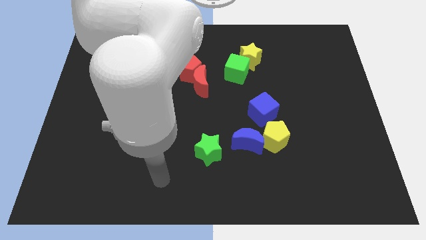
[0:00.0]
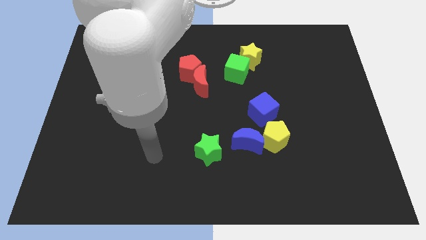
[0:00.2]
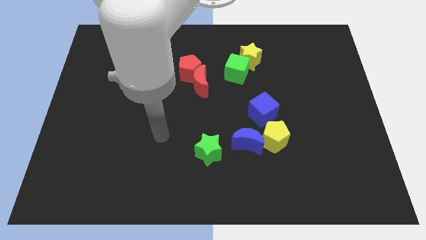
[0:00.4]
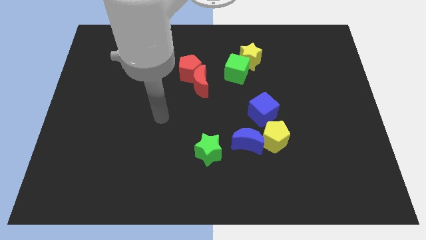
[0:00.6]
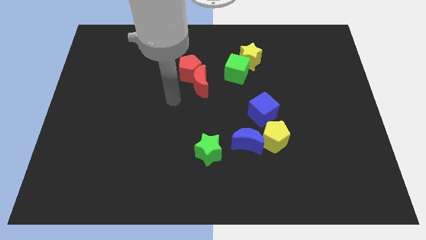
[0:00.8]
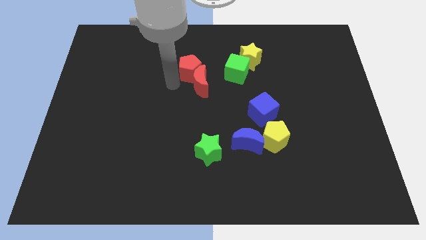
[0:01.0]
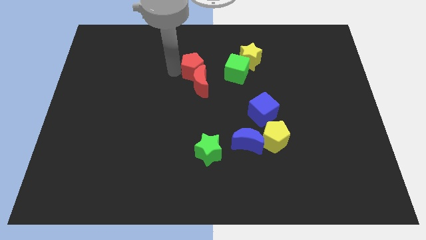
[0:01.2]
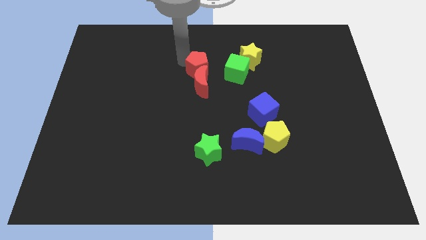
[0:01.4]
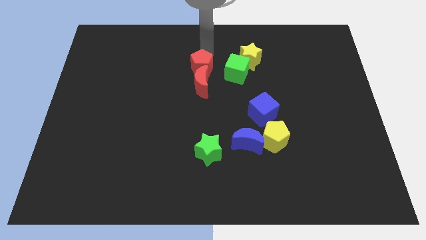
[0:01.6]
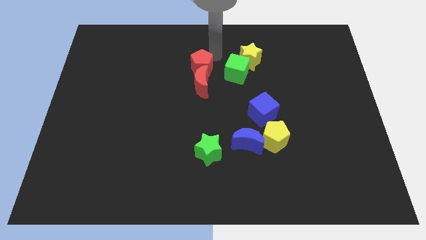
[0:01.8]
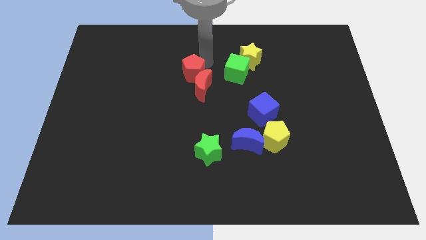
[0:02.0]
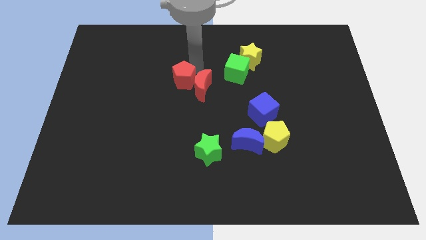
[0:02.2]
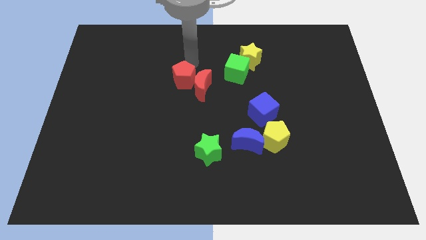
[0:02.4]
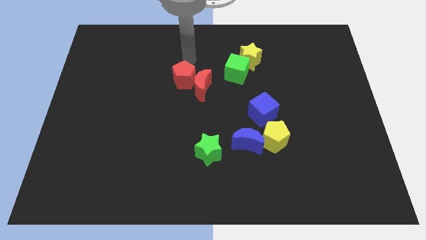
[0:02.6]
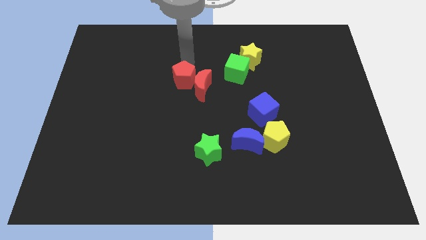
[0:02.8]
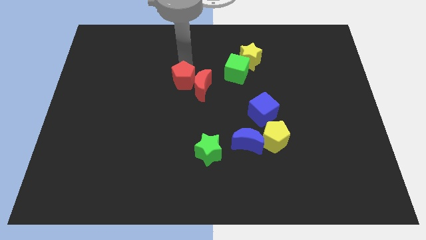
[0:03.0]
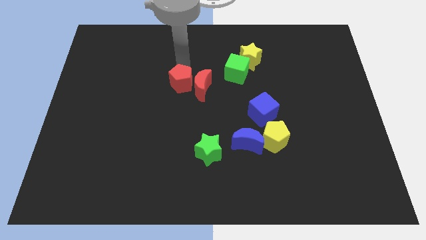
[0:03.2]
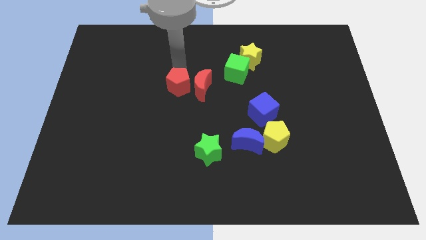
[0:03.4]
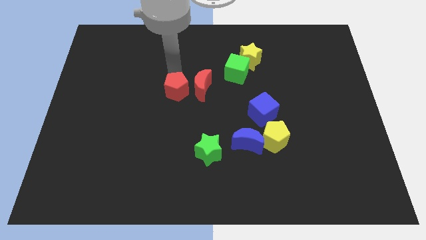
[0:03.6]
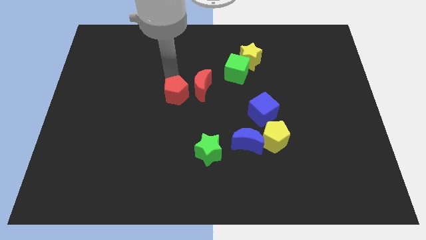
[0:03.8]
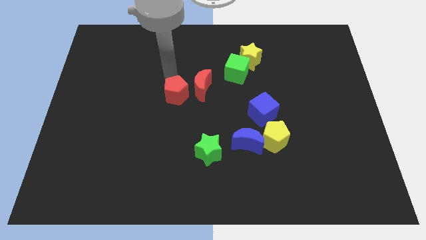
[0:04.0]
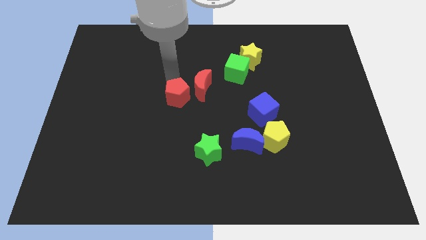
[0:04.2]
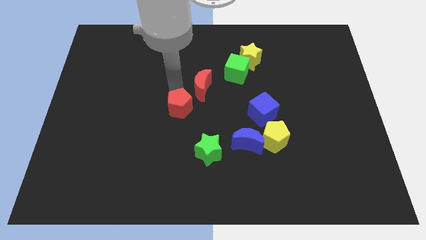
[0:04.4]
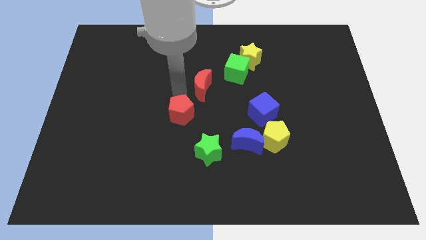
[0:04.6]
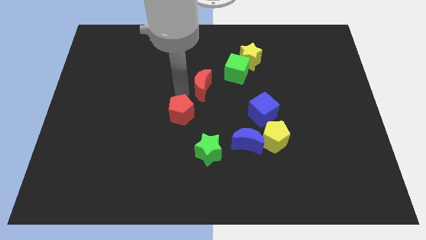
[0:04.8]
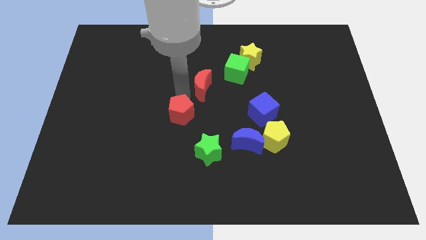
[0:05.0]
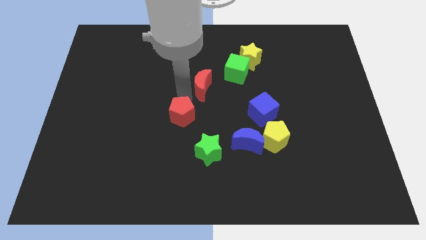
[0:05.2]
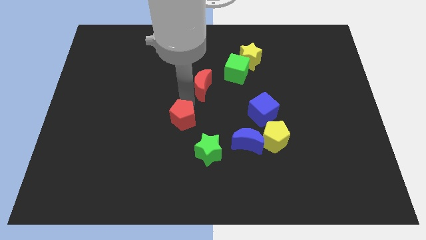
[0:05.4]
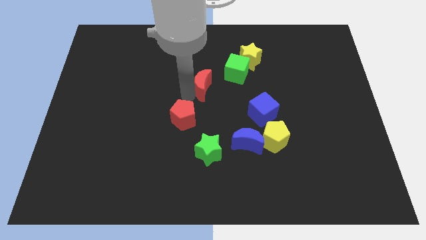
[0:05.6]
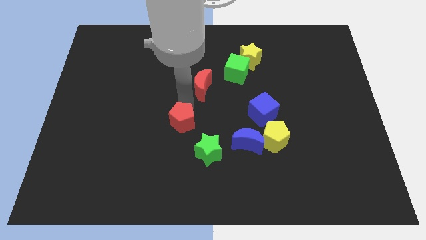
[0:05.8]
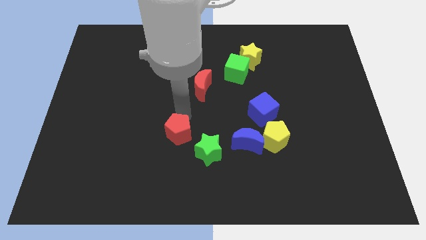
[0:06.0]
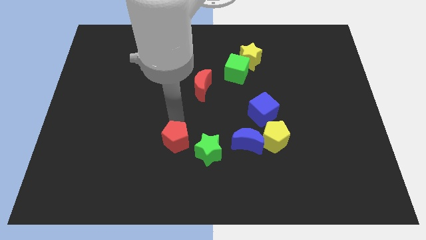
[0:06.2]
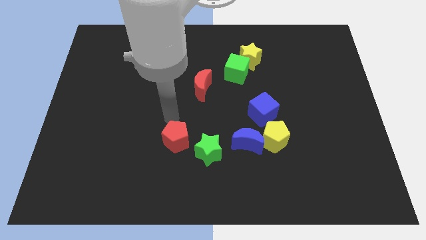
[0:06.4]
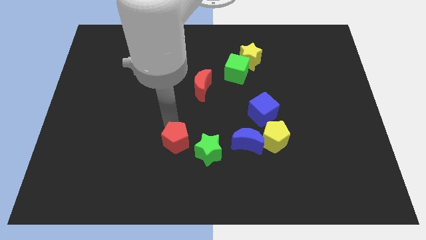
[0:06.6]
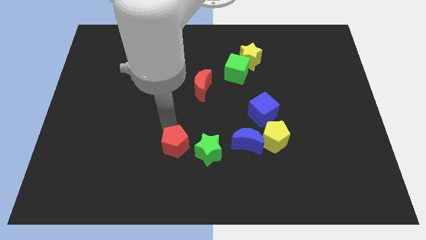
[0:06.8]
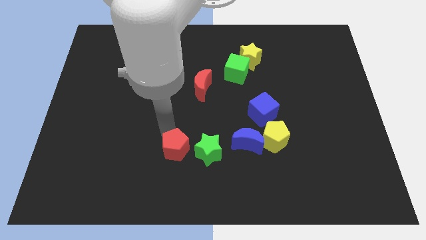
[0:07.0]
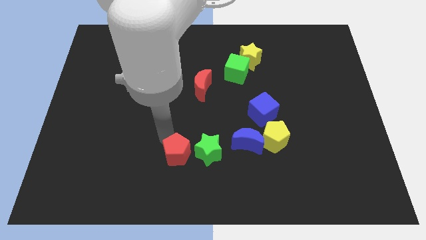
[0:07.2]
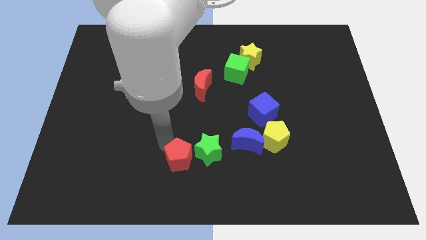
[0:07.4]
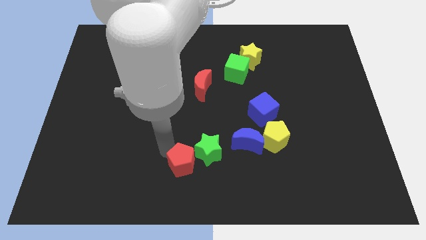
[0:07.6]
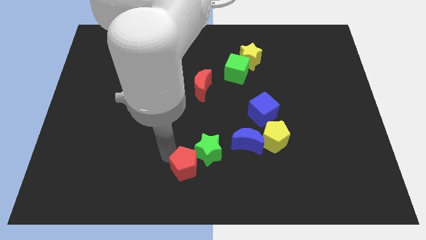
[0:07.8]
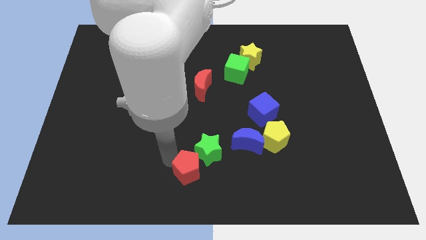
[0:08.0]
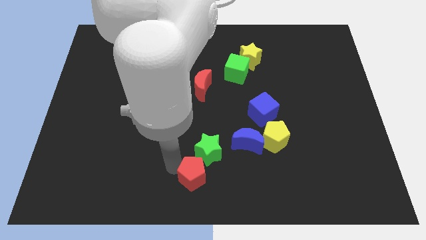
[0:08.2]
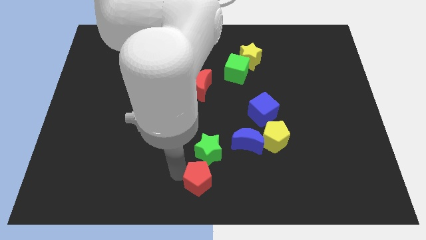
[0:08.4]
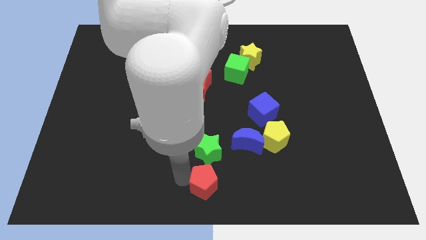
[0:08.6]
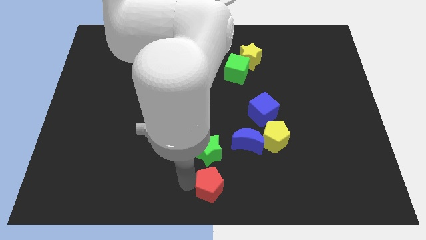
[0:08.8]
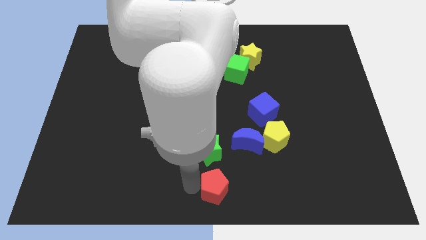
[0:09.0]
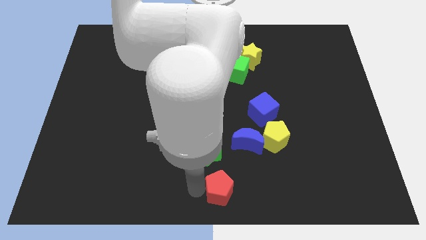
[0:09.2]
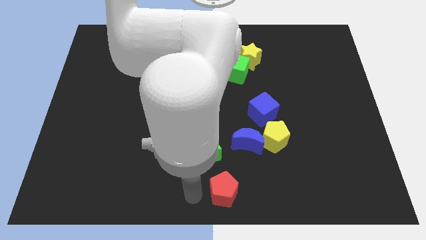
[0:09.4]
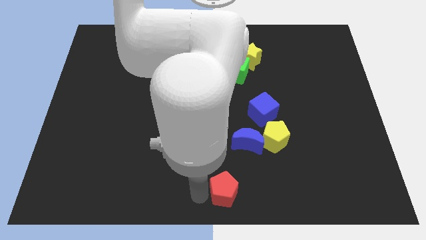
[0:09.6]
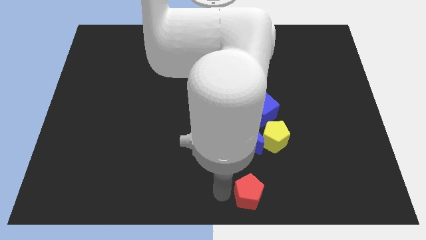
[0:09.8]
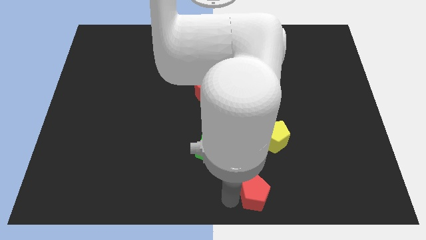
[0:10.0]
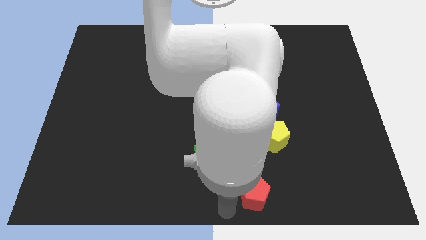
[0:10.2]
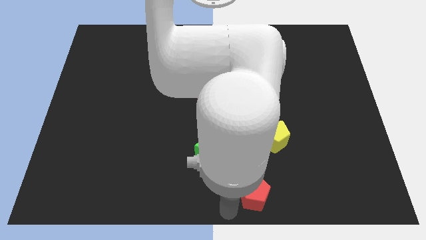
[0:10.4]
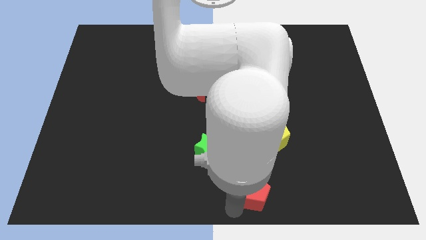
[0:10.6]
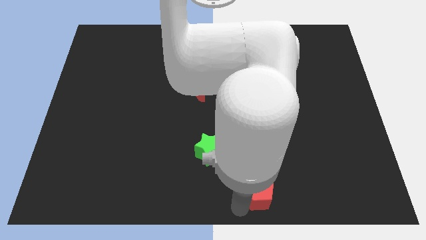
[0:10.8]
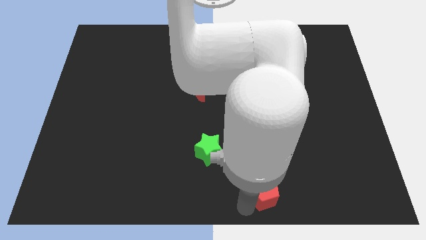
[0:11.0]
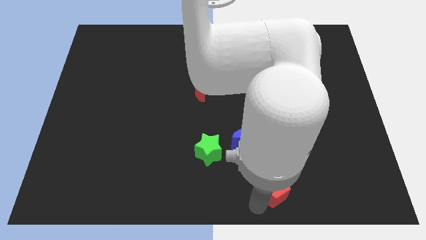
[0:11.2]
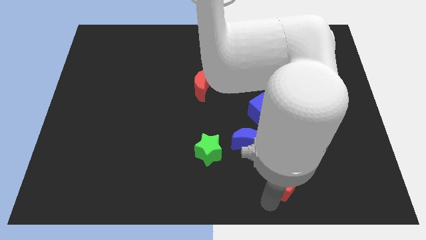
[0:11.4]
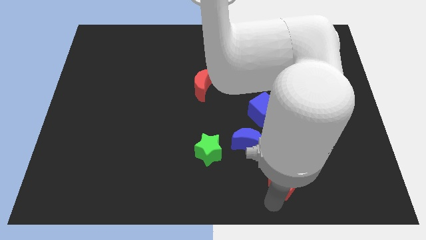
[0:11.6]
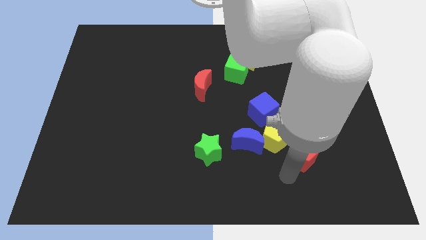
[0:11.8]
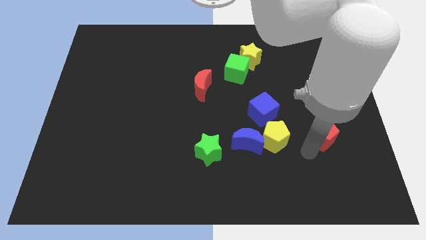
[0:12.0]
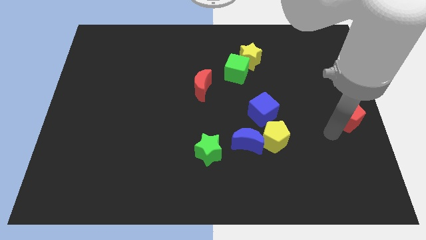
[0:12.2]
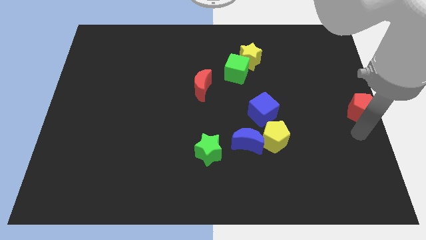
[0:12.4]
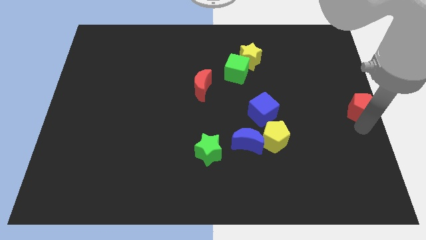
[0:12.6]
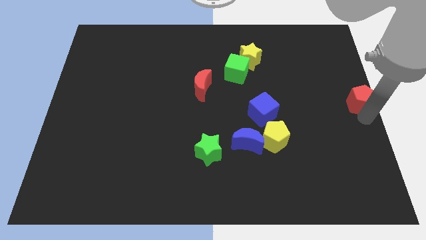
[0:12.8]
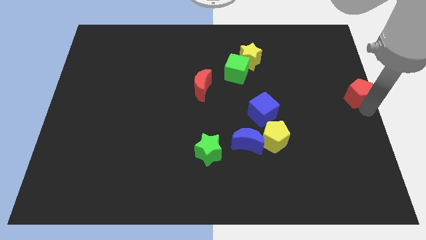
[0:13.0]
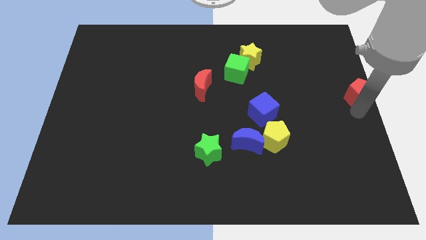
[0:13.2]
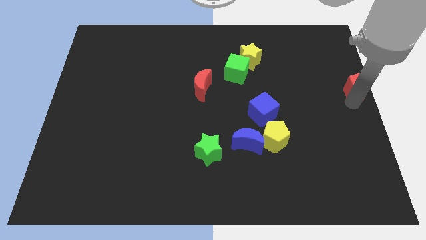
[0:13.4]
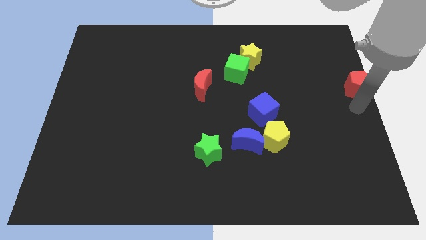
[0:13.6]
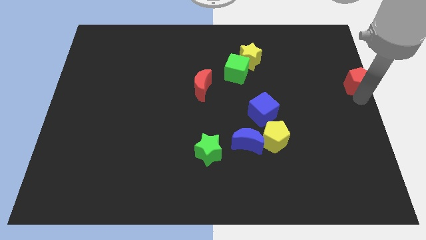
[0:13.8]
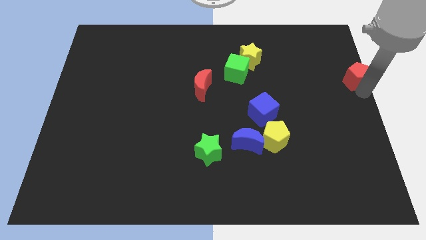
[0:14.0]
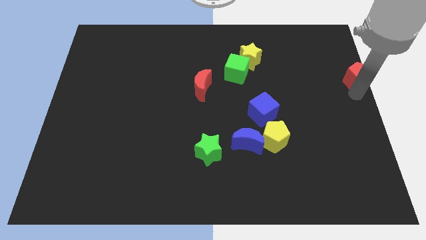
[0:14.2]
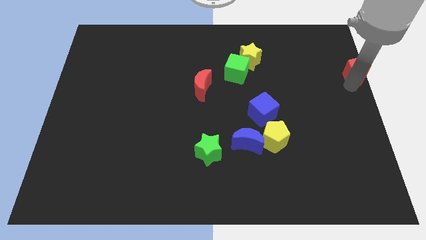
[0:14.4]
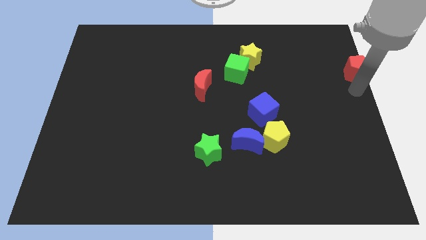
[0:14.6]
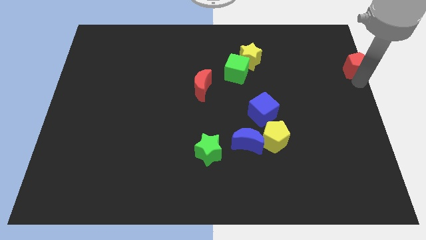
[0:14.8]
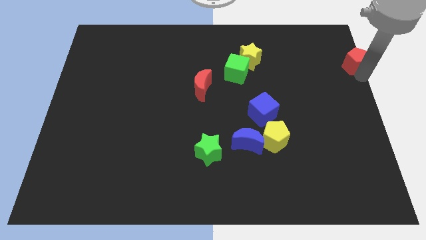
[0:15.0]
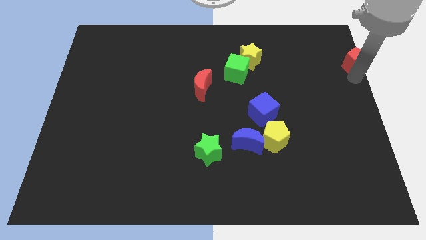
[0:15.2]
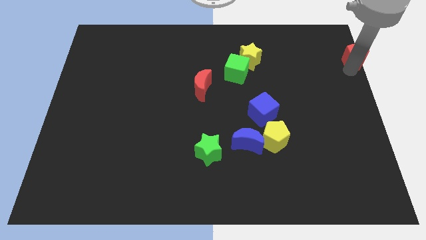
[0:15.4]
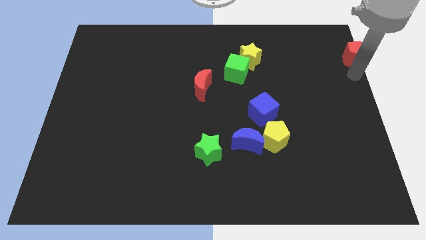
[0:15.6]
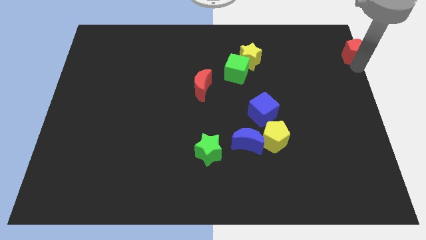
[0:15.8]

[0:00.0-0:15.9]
push the red pentagon to the upper right corner
